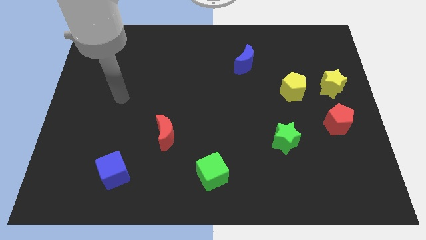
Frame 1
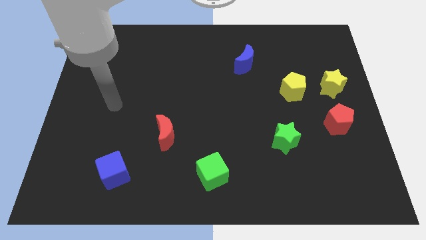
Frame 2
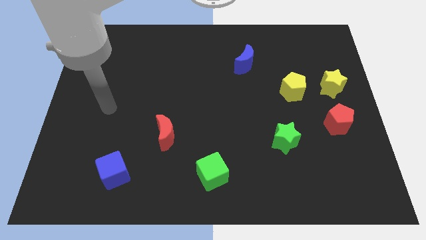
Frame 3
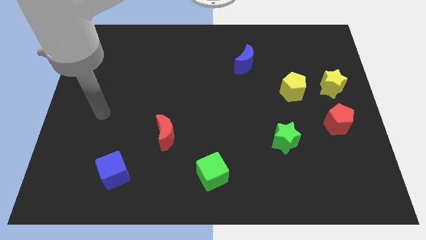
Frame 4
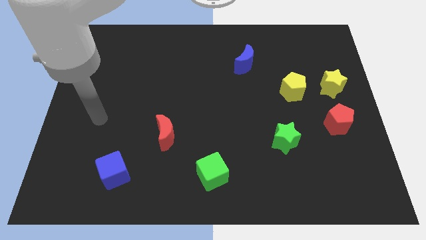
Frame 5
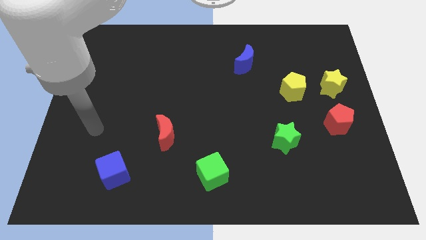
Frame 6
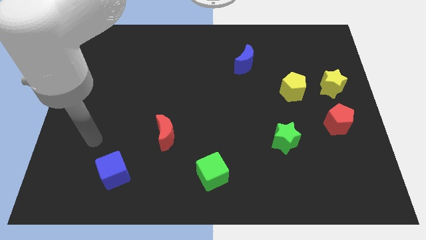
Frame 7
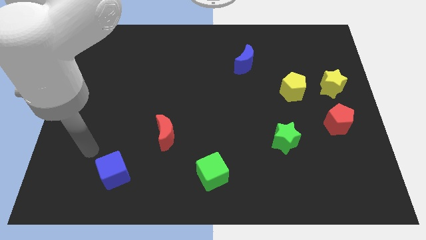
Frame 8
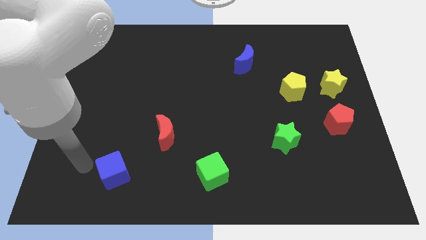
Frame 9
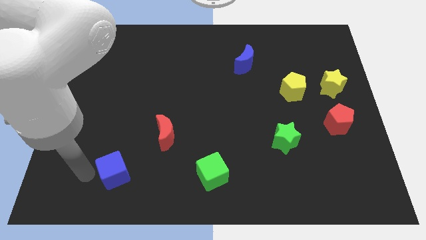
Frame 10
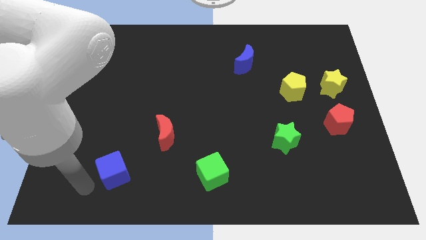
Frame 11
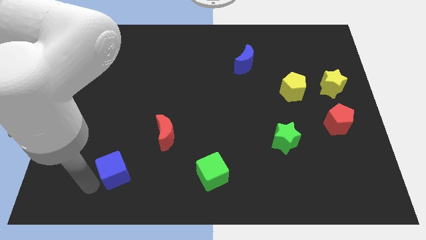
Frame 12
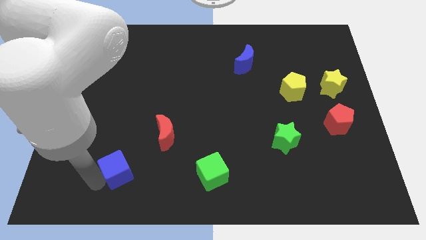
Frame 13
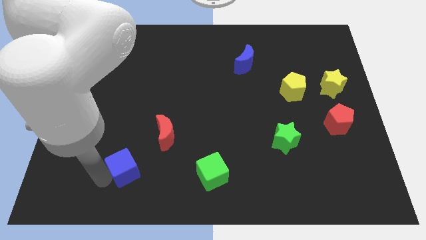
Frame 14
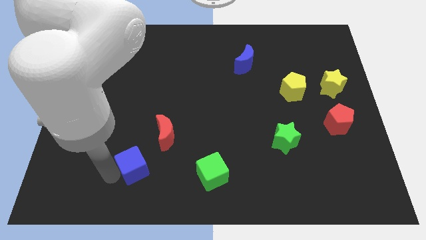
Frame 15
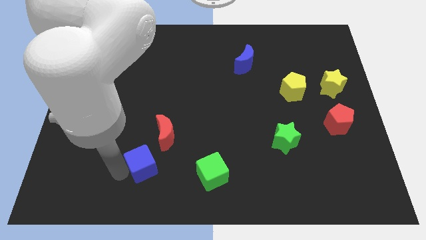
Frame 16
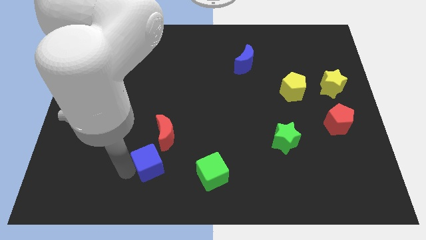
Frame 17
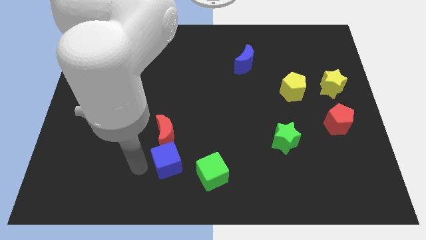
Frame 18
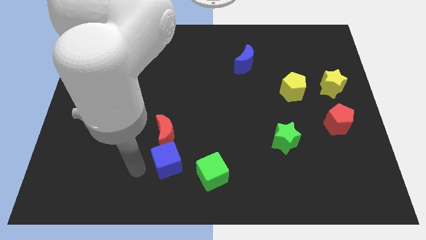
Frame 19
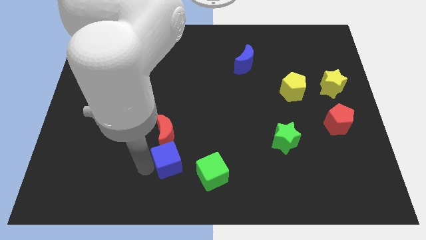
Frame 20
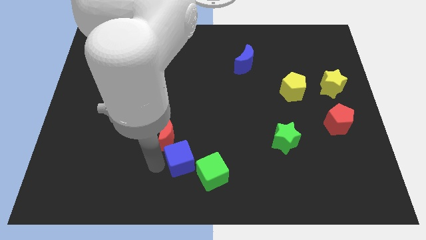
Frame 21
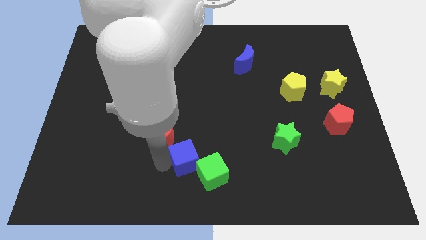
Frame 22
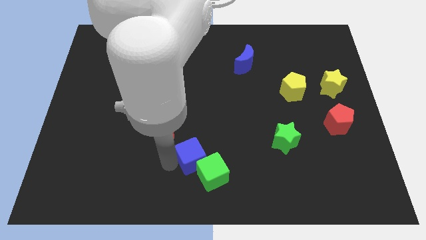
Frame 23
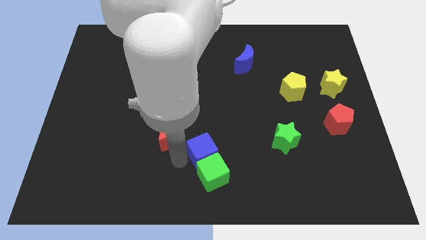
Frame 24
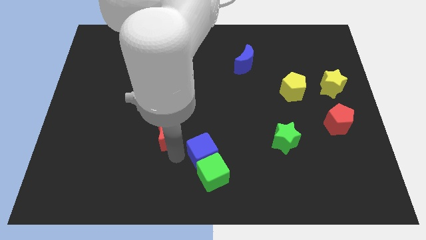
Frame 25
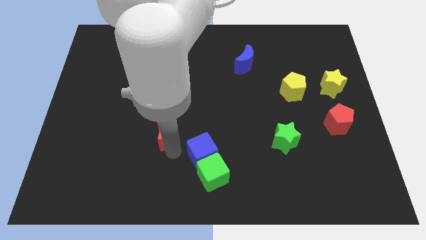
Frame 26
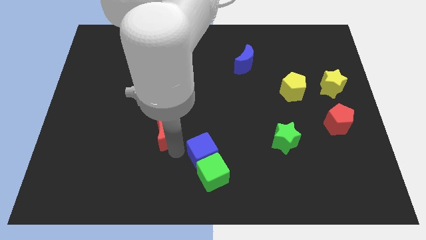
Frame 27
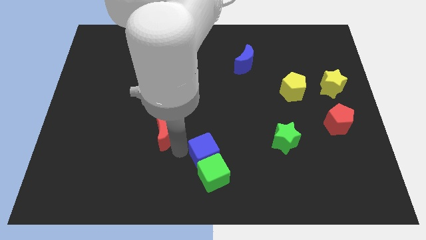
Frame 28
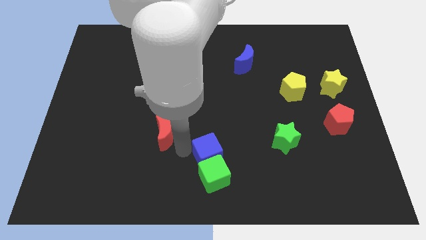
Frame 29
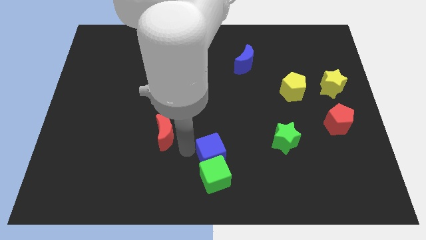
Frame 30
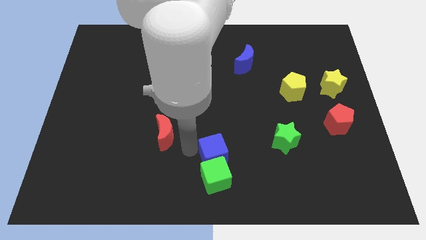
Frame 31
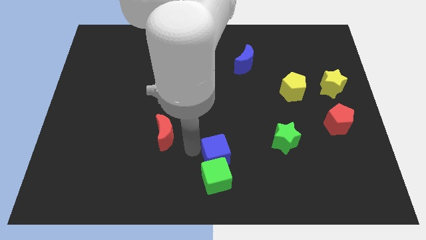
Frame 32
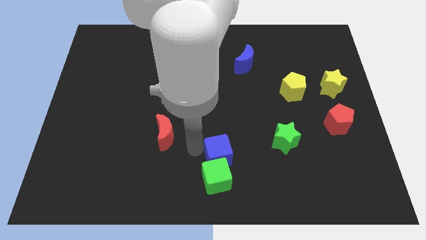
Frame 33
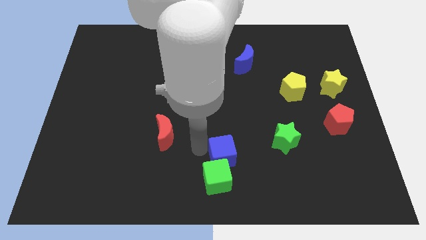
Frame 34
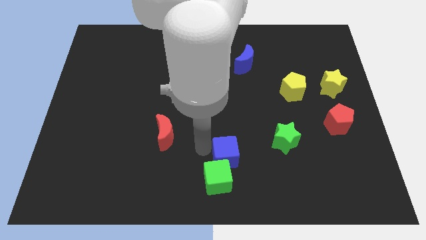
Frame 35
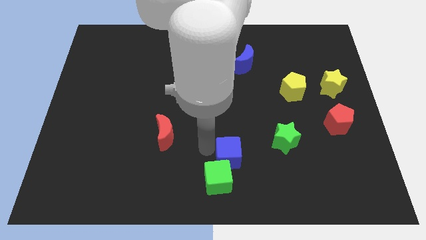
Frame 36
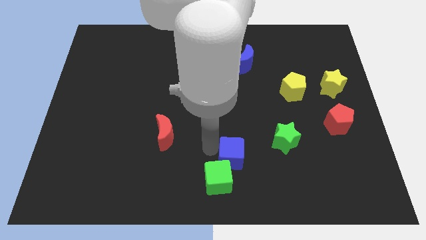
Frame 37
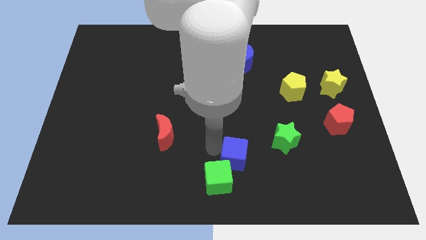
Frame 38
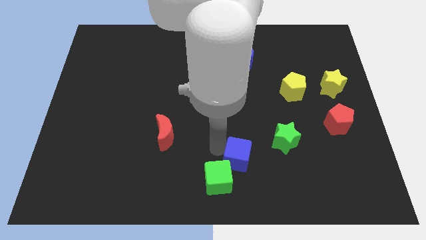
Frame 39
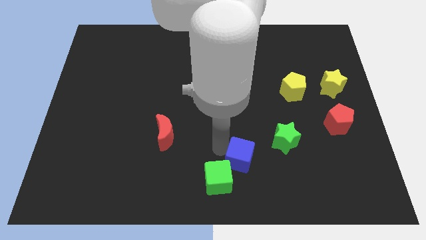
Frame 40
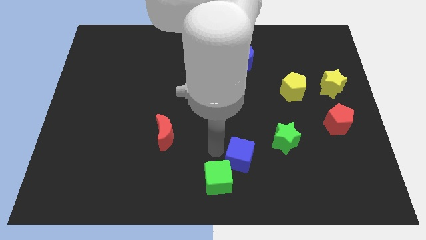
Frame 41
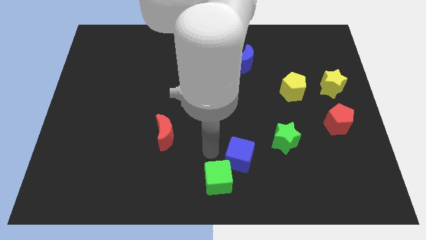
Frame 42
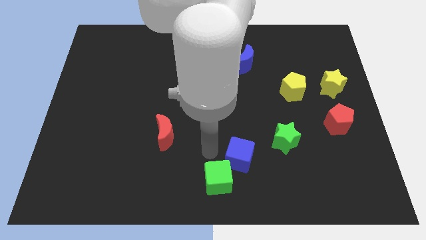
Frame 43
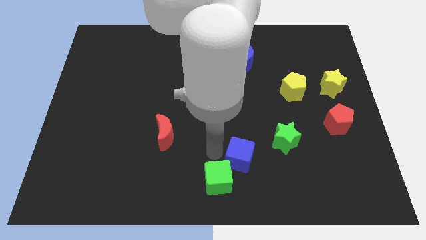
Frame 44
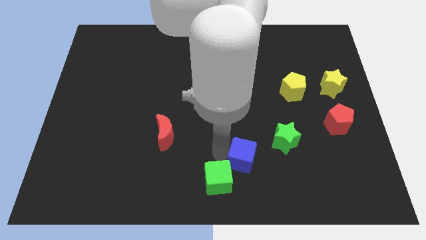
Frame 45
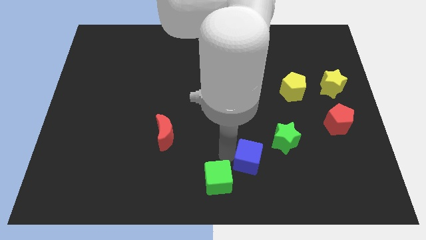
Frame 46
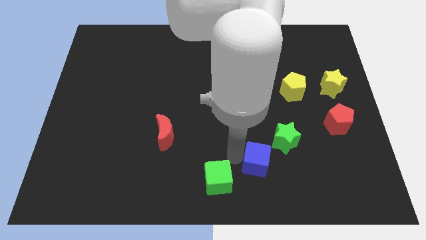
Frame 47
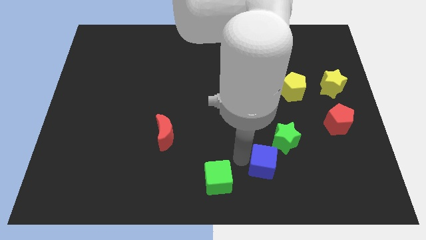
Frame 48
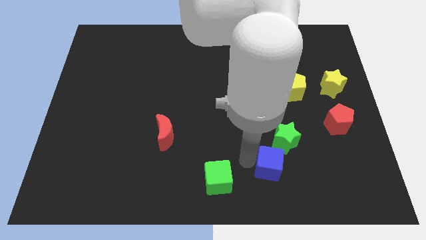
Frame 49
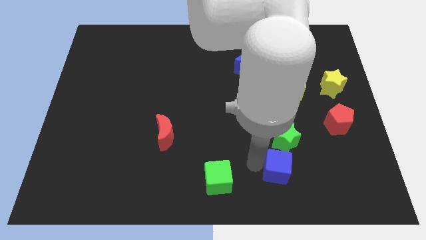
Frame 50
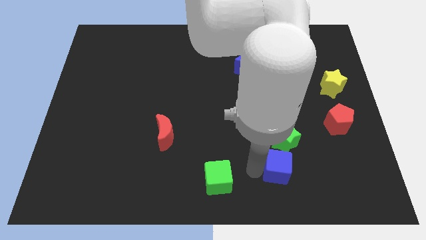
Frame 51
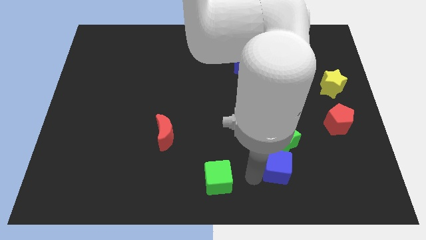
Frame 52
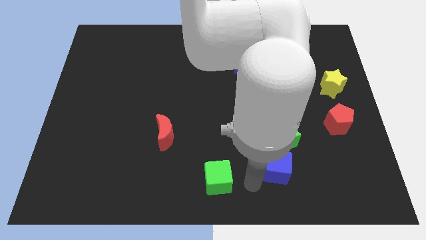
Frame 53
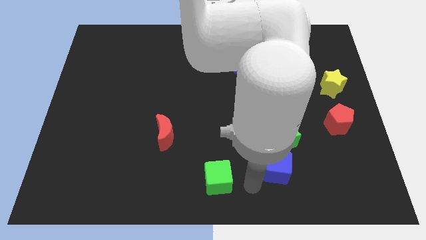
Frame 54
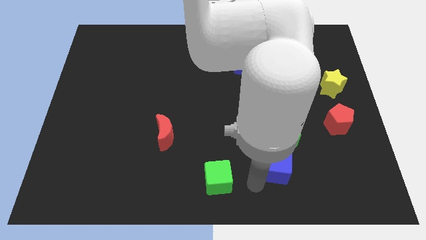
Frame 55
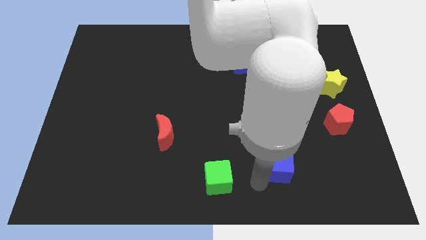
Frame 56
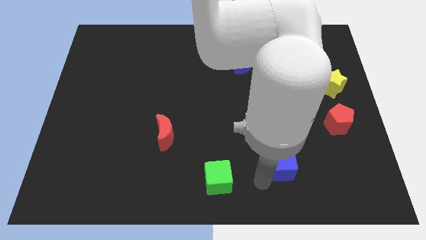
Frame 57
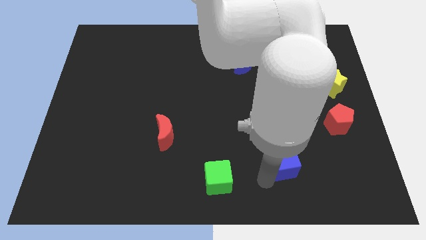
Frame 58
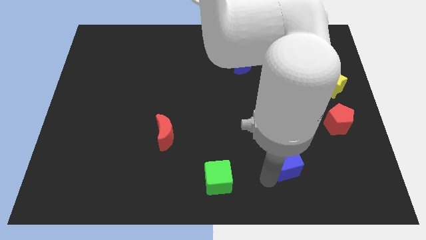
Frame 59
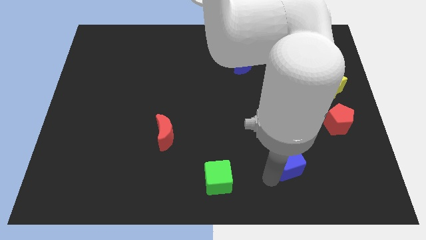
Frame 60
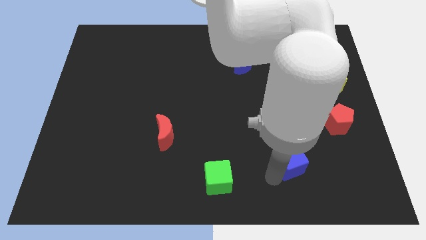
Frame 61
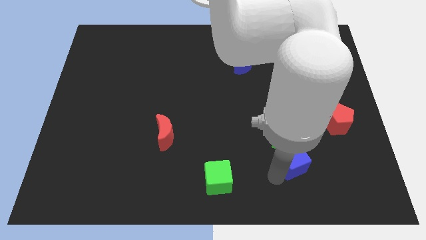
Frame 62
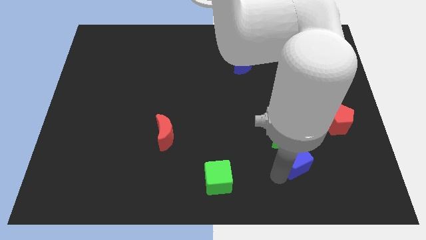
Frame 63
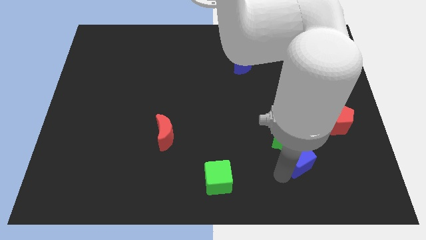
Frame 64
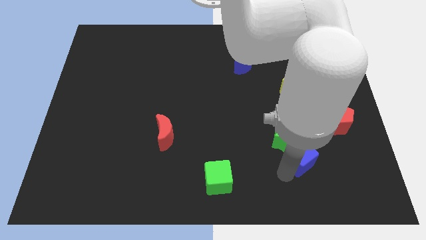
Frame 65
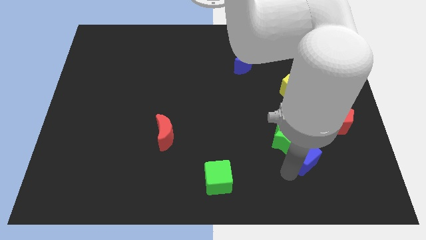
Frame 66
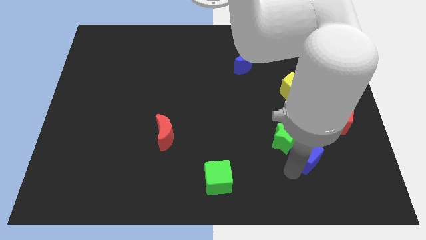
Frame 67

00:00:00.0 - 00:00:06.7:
slide the blue cube right of the green star
